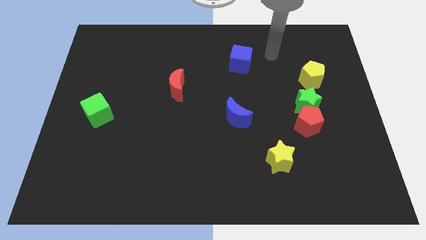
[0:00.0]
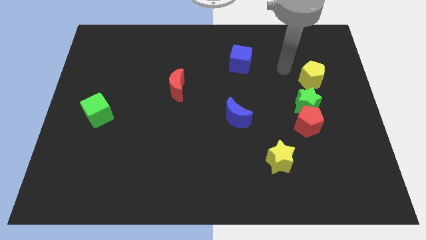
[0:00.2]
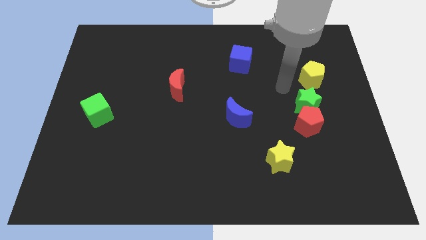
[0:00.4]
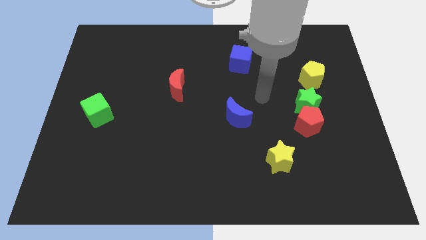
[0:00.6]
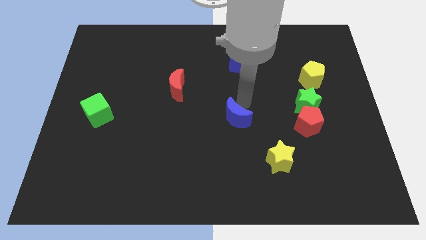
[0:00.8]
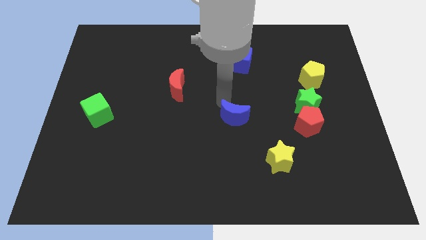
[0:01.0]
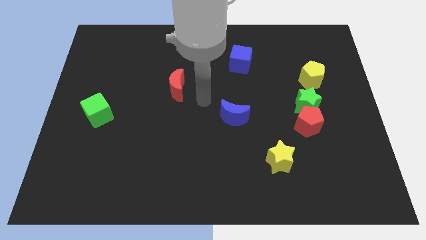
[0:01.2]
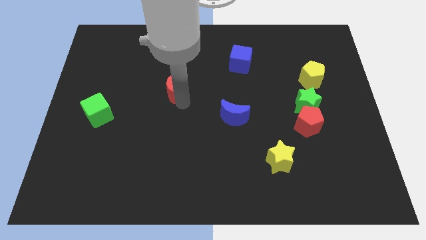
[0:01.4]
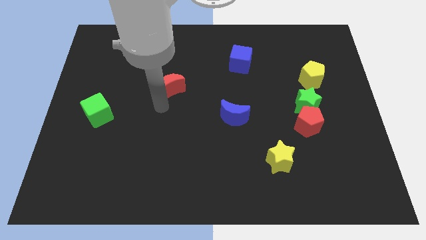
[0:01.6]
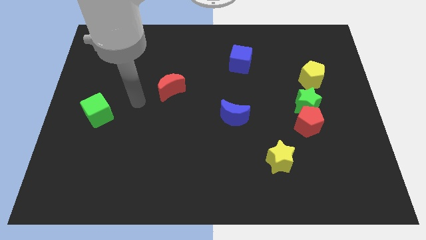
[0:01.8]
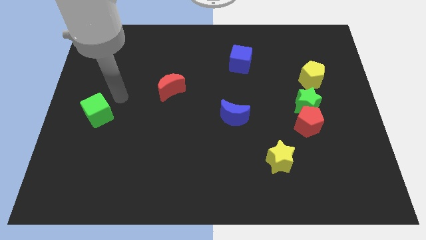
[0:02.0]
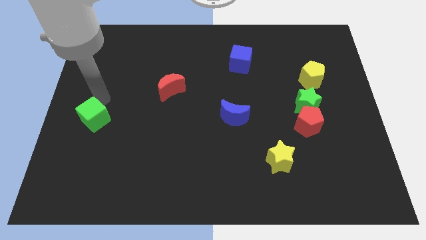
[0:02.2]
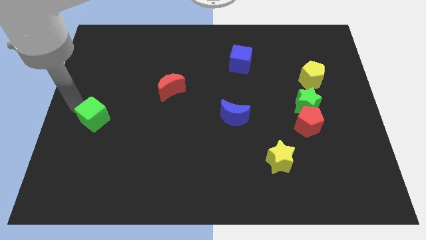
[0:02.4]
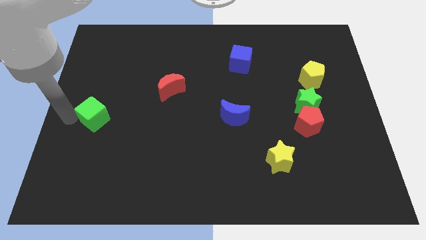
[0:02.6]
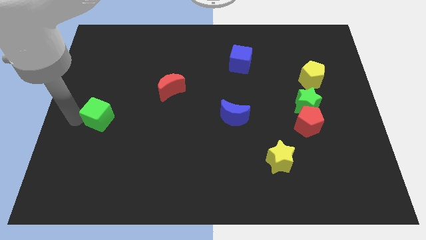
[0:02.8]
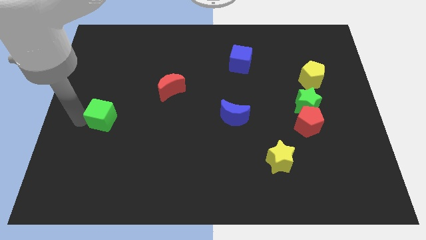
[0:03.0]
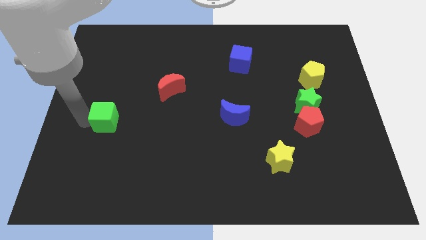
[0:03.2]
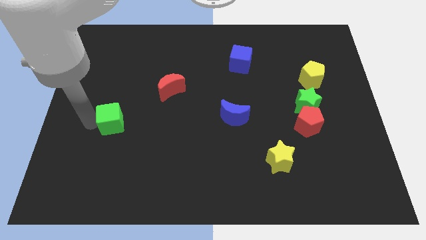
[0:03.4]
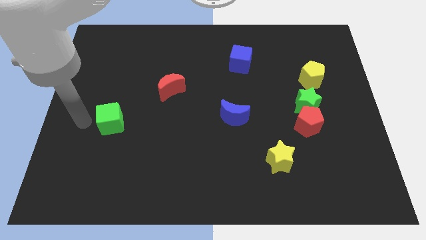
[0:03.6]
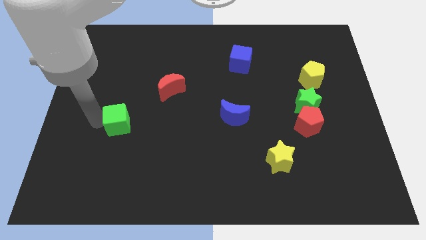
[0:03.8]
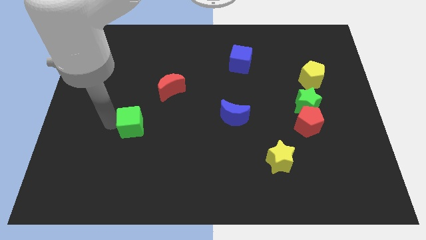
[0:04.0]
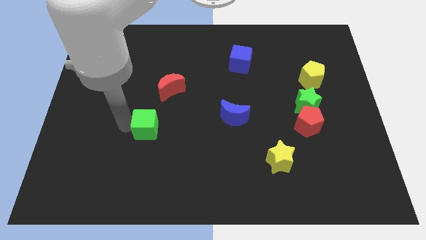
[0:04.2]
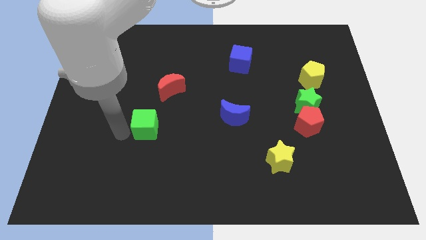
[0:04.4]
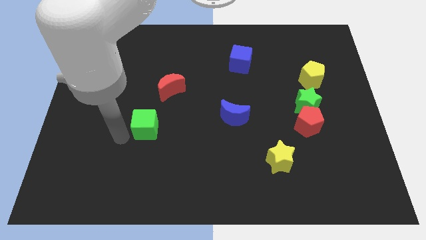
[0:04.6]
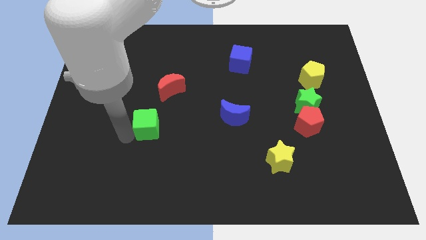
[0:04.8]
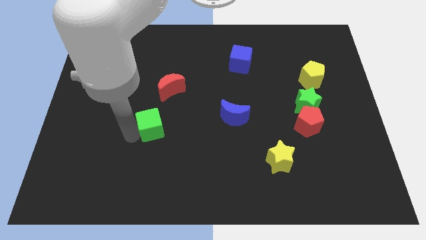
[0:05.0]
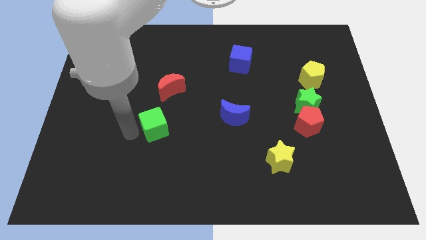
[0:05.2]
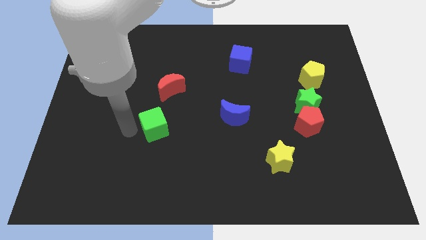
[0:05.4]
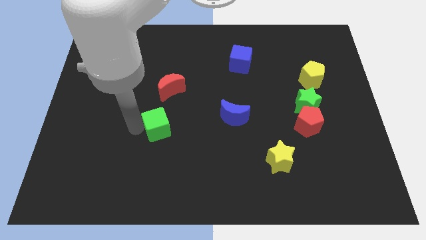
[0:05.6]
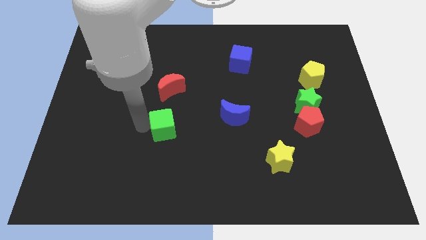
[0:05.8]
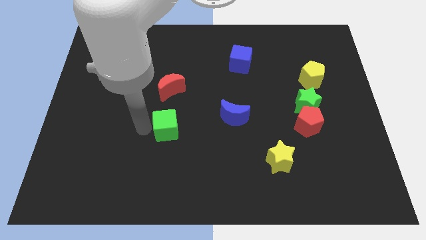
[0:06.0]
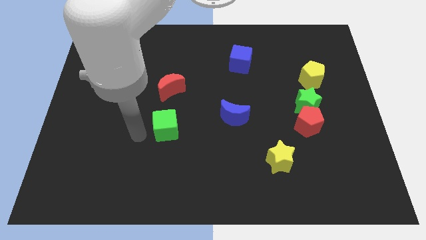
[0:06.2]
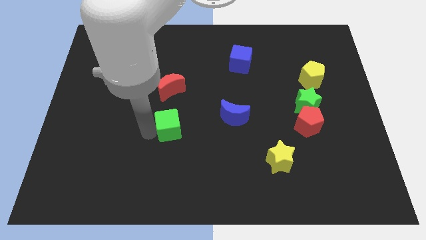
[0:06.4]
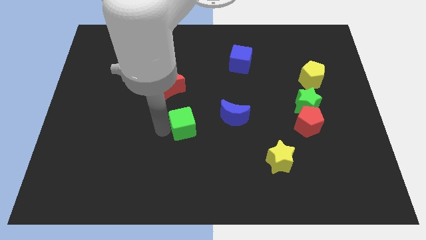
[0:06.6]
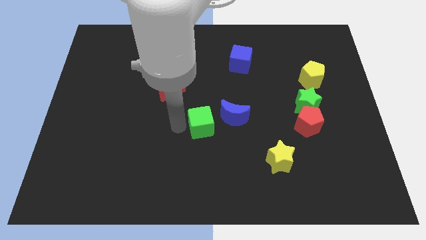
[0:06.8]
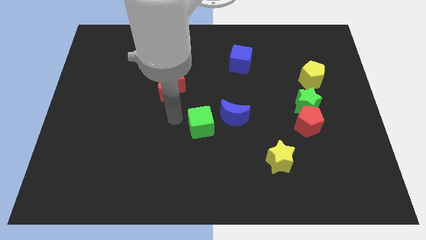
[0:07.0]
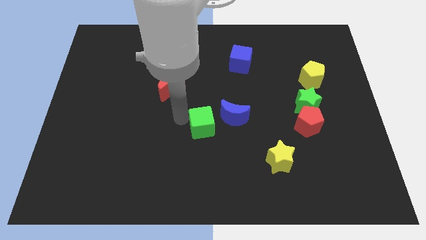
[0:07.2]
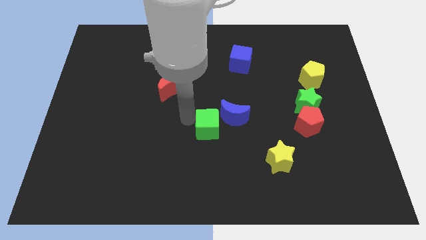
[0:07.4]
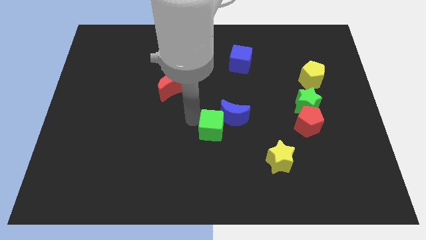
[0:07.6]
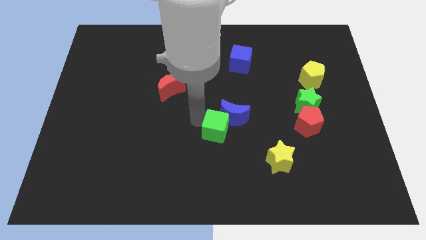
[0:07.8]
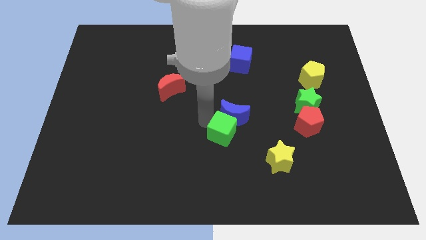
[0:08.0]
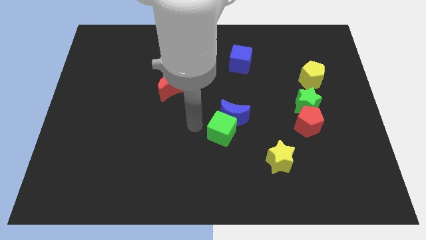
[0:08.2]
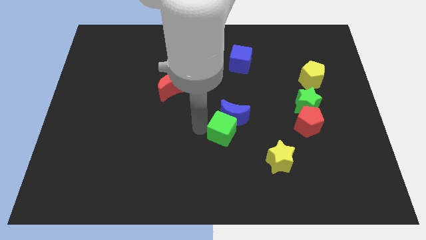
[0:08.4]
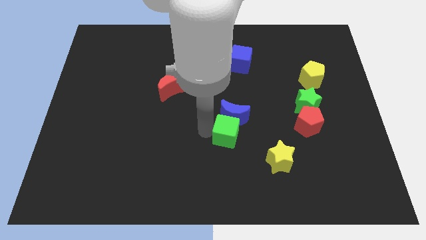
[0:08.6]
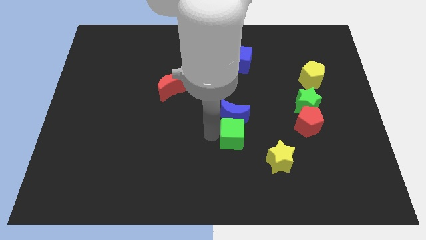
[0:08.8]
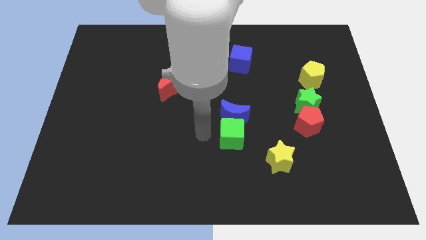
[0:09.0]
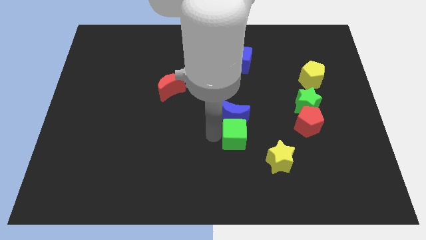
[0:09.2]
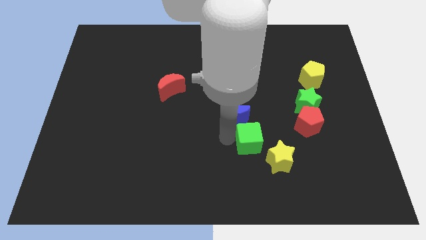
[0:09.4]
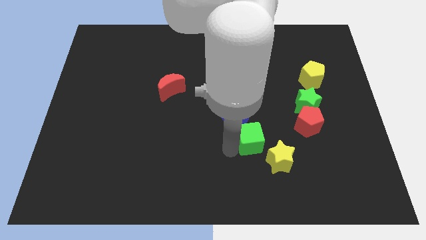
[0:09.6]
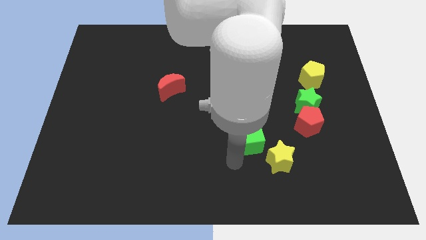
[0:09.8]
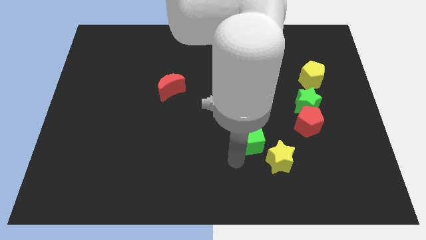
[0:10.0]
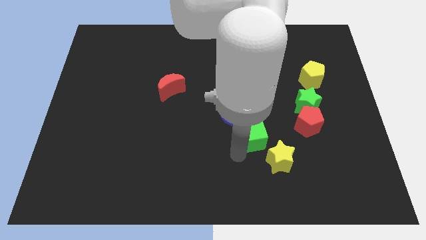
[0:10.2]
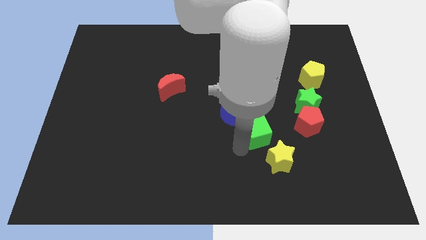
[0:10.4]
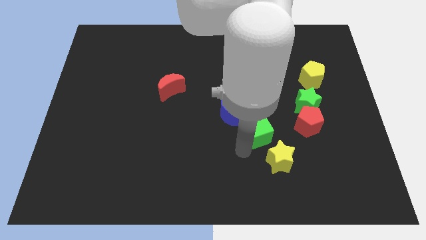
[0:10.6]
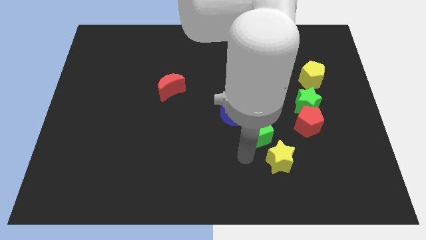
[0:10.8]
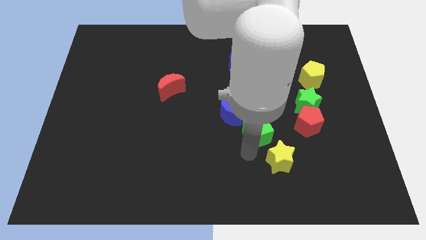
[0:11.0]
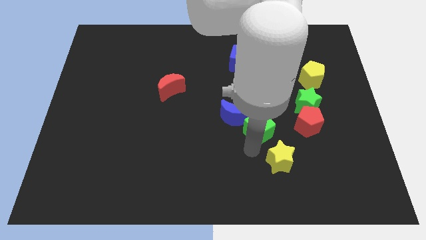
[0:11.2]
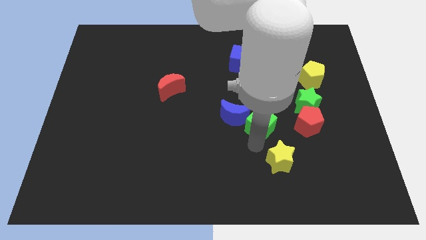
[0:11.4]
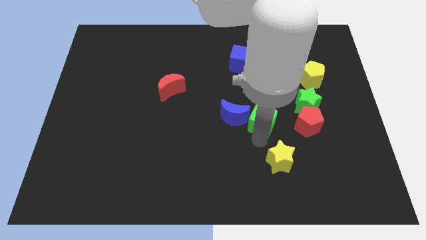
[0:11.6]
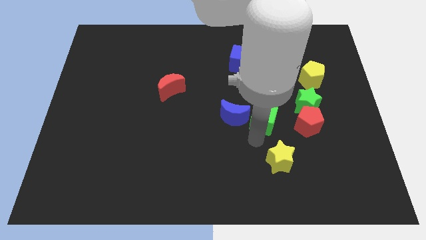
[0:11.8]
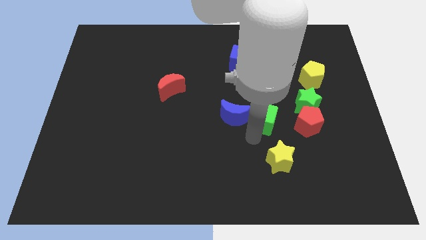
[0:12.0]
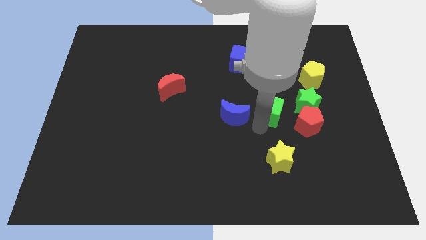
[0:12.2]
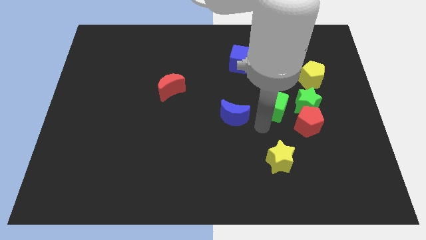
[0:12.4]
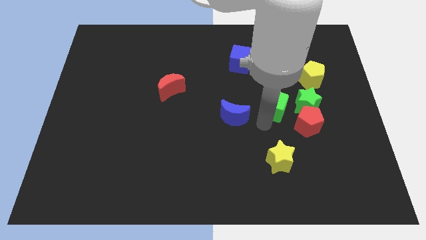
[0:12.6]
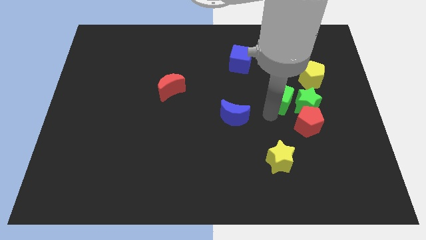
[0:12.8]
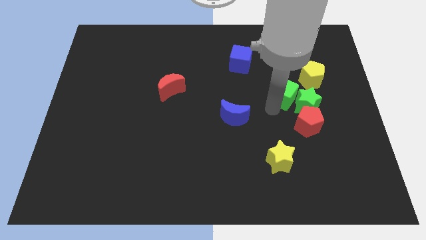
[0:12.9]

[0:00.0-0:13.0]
push the green cube to the top of the red pentagon

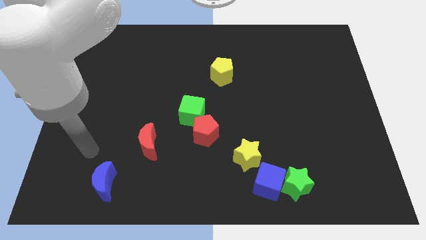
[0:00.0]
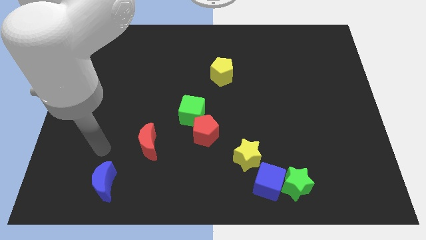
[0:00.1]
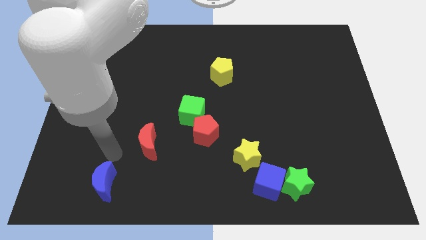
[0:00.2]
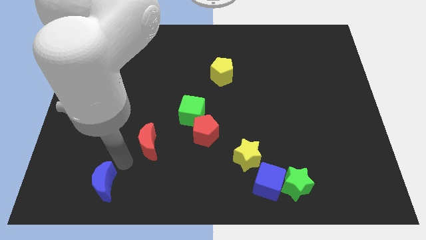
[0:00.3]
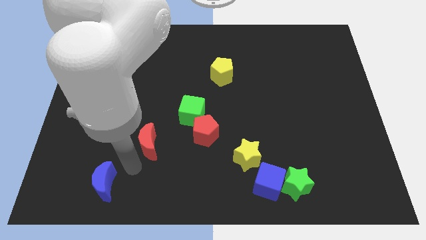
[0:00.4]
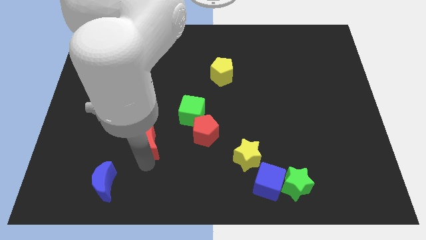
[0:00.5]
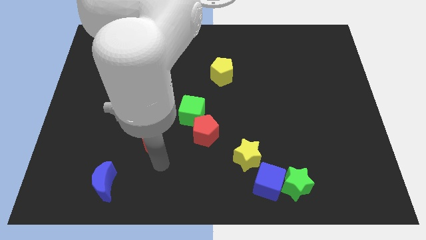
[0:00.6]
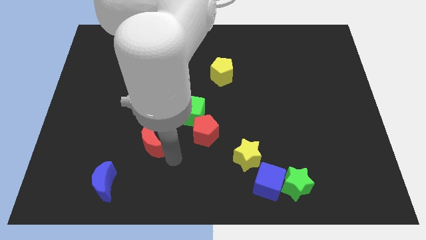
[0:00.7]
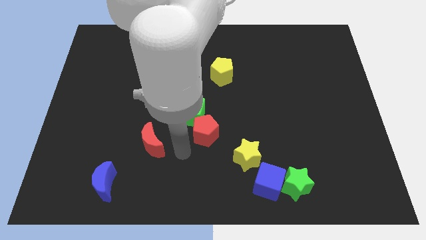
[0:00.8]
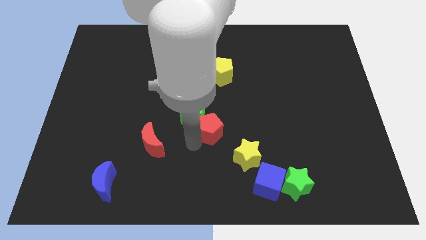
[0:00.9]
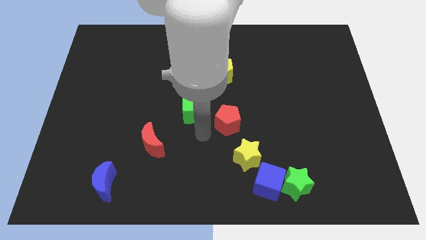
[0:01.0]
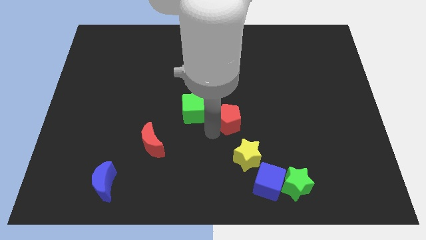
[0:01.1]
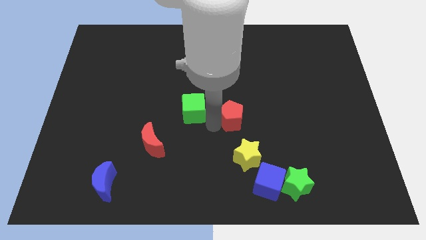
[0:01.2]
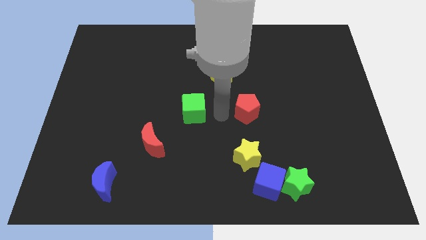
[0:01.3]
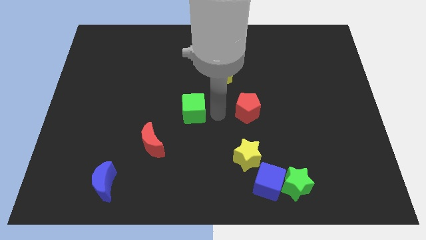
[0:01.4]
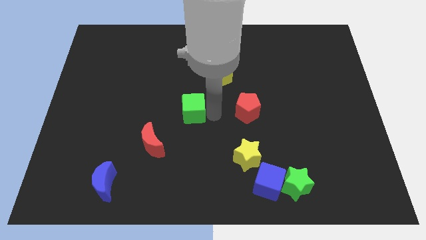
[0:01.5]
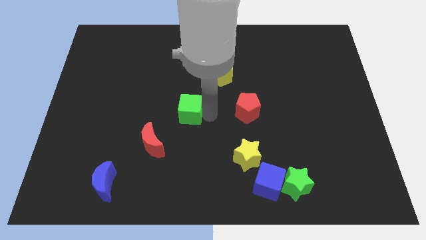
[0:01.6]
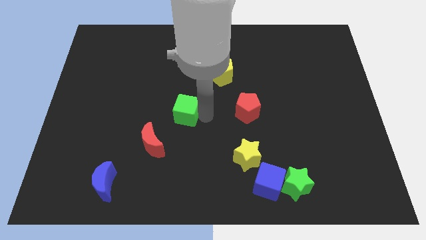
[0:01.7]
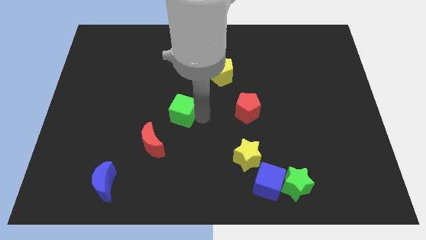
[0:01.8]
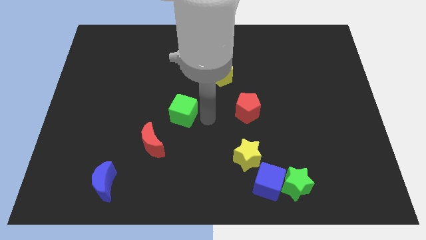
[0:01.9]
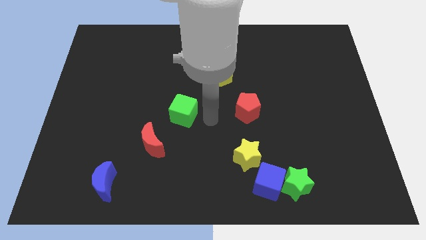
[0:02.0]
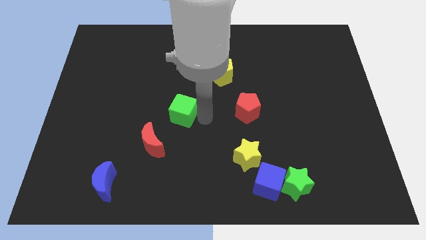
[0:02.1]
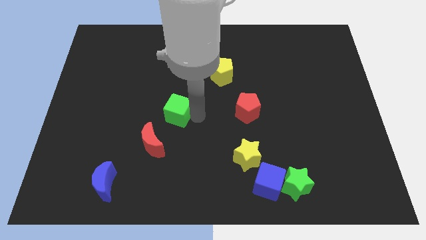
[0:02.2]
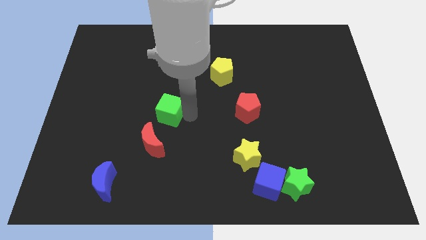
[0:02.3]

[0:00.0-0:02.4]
move the green cube above the red moon
